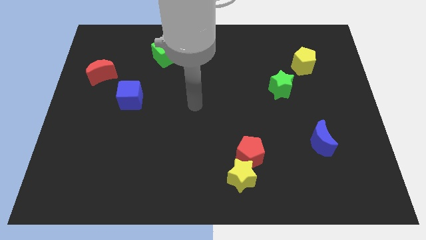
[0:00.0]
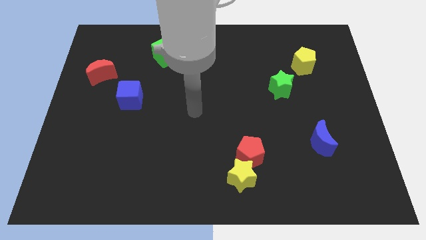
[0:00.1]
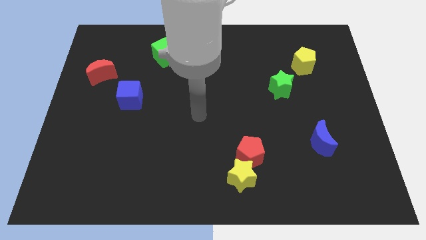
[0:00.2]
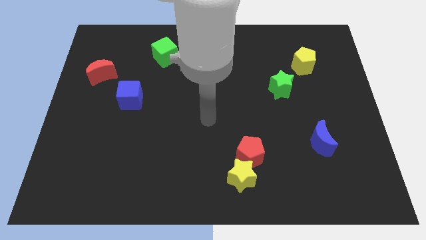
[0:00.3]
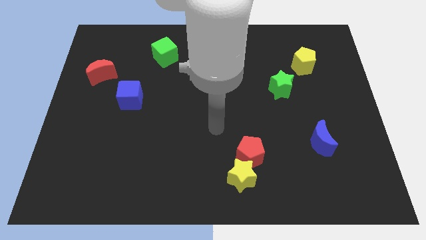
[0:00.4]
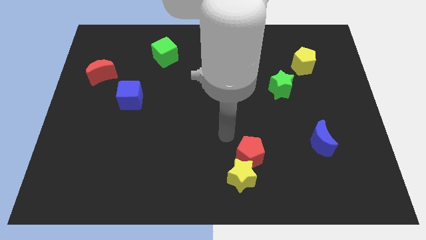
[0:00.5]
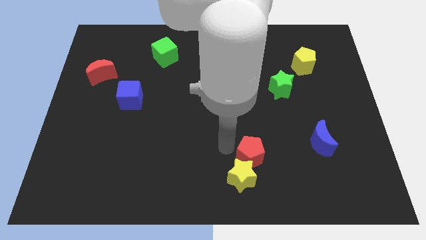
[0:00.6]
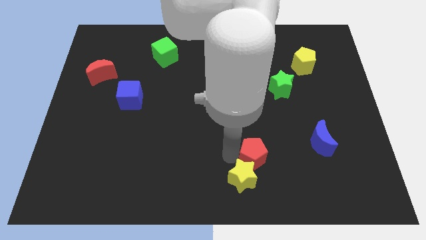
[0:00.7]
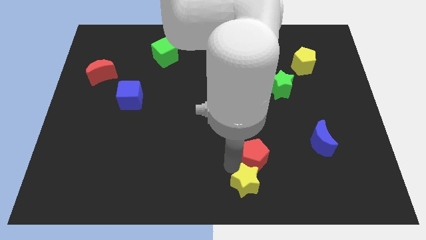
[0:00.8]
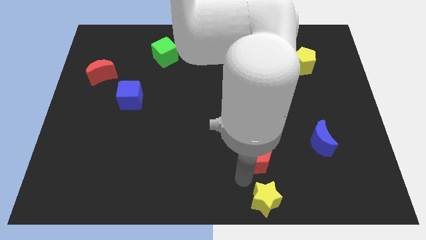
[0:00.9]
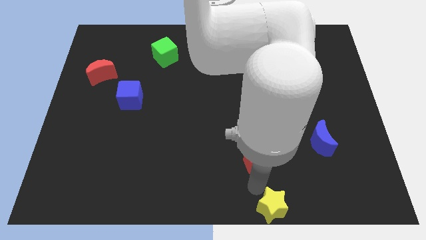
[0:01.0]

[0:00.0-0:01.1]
move the red pentagon away from the yellow star

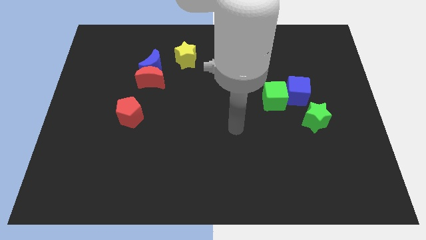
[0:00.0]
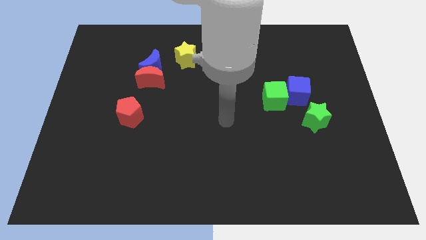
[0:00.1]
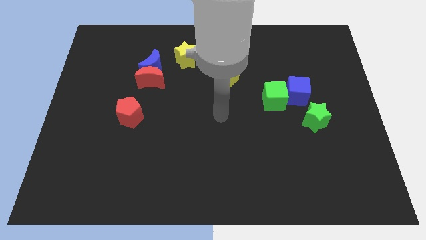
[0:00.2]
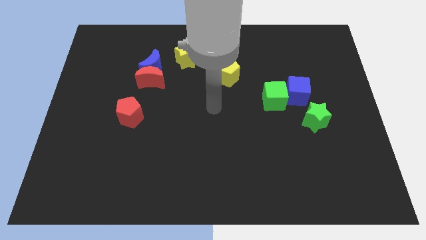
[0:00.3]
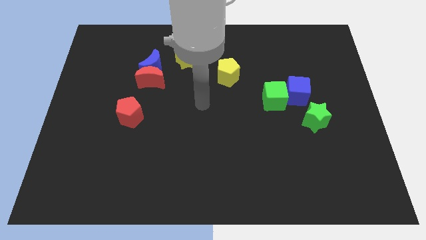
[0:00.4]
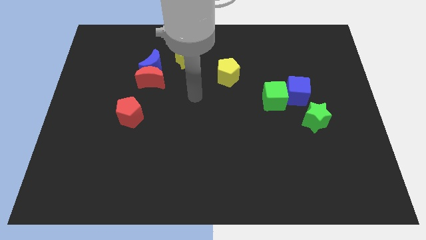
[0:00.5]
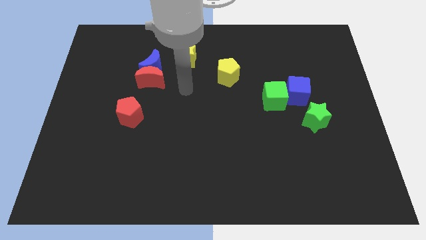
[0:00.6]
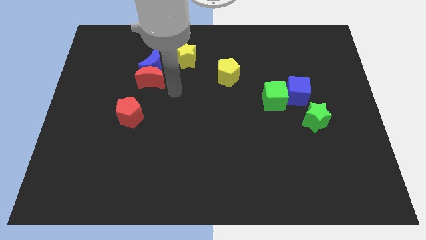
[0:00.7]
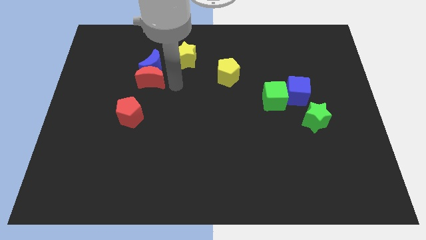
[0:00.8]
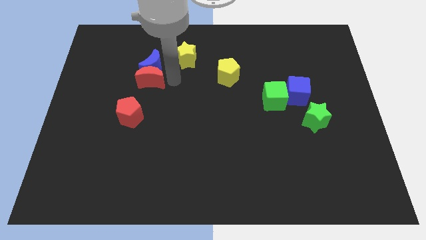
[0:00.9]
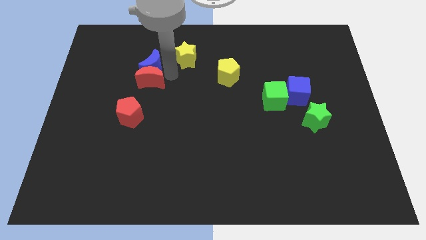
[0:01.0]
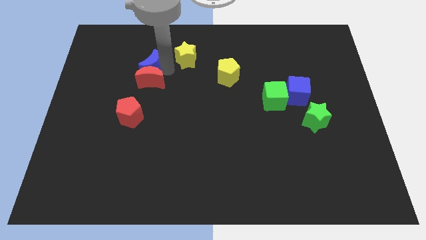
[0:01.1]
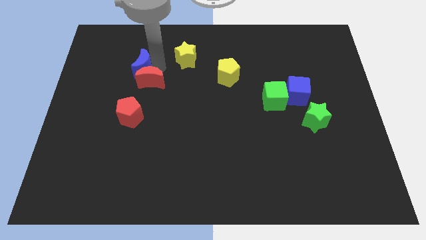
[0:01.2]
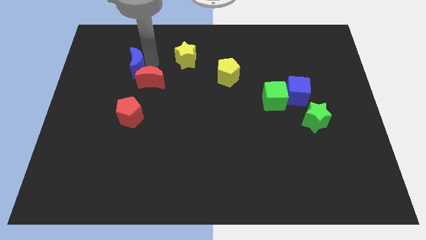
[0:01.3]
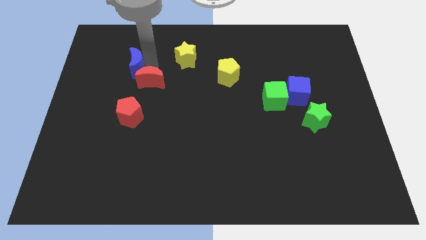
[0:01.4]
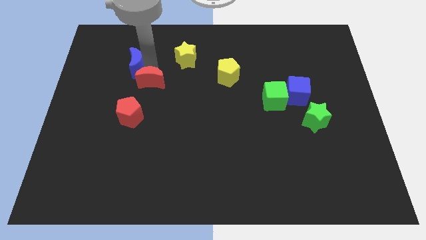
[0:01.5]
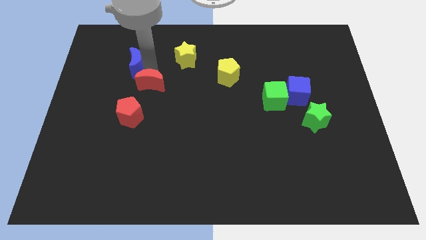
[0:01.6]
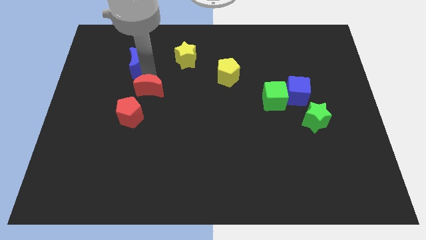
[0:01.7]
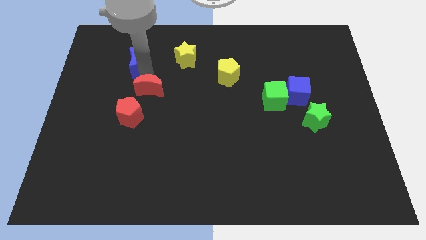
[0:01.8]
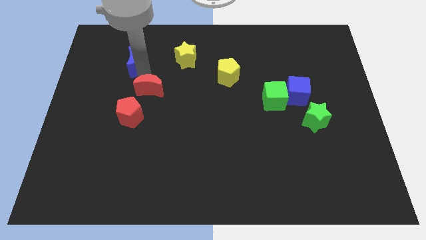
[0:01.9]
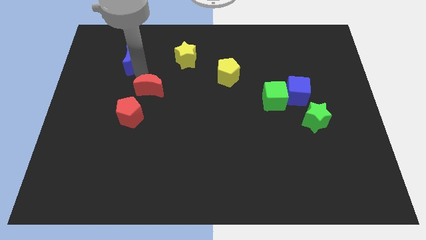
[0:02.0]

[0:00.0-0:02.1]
separate the red moon from the blue moon

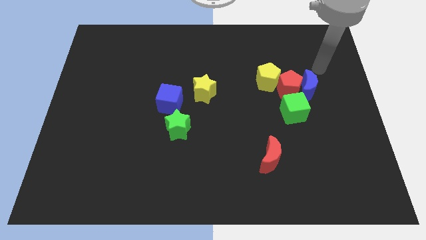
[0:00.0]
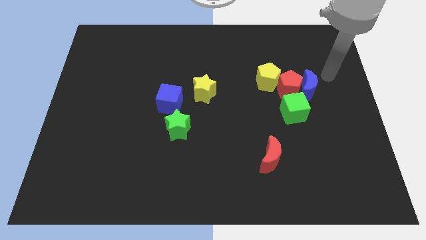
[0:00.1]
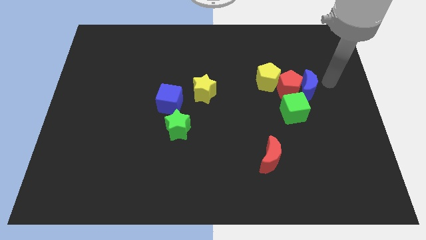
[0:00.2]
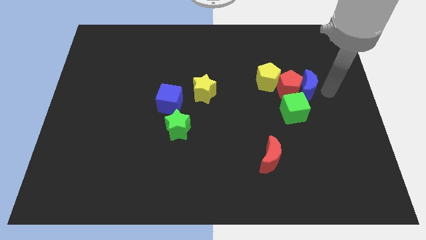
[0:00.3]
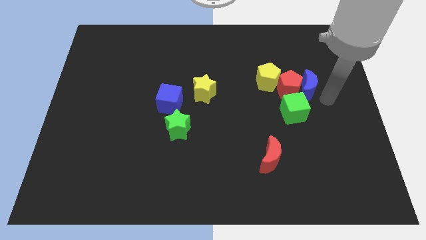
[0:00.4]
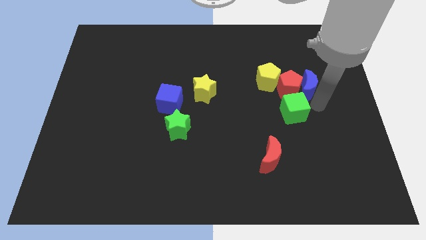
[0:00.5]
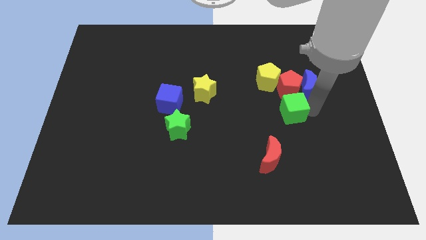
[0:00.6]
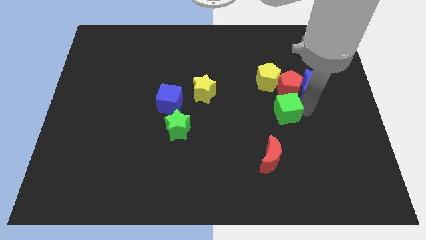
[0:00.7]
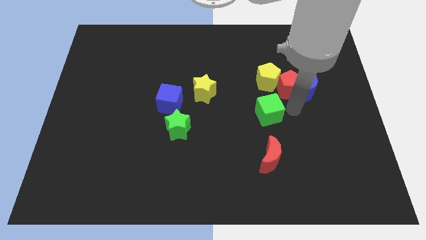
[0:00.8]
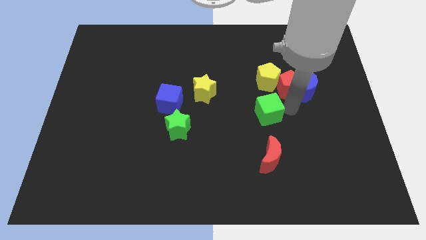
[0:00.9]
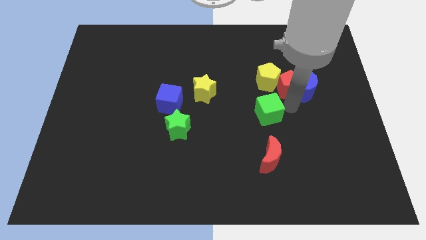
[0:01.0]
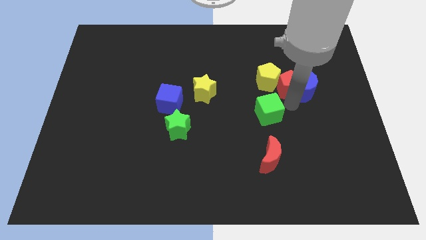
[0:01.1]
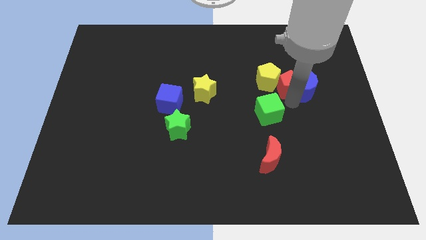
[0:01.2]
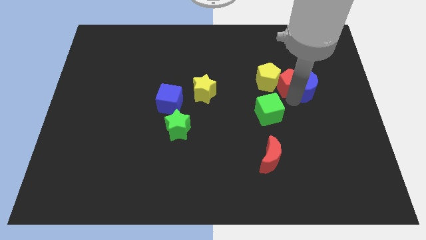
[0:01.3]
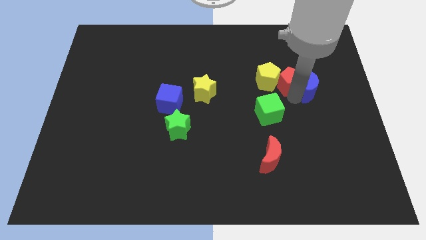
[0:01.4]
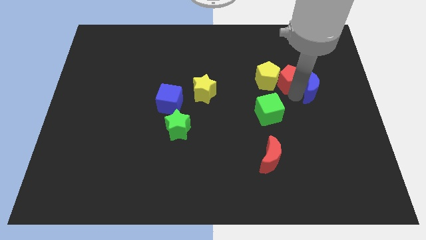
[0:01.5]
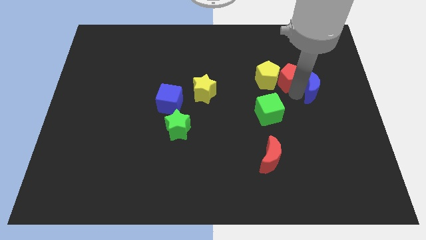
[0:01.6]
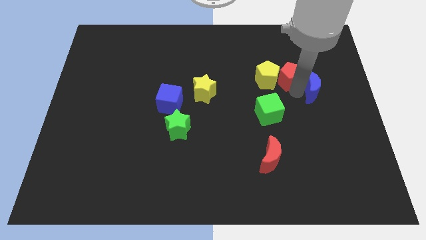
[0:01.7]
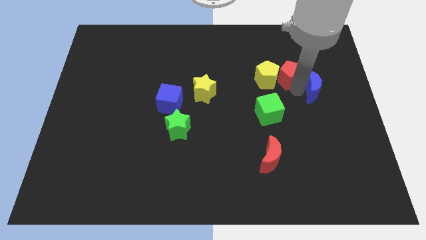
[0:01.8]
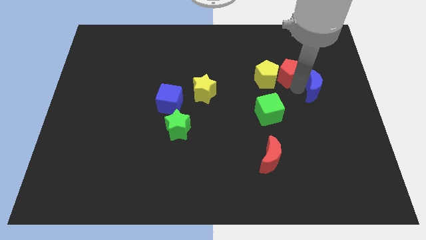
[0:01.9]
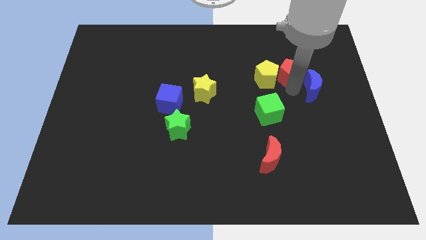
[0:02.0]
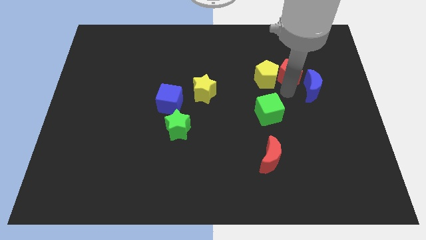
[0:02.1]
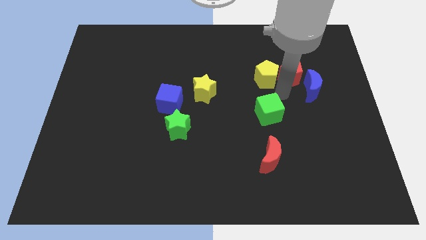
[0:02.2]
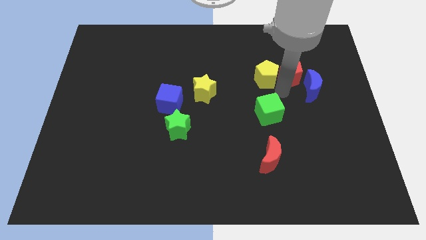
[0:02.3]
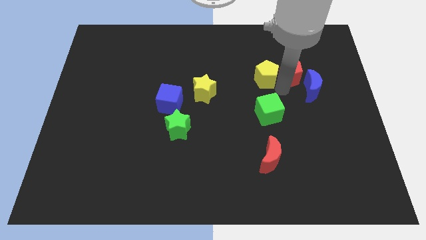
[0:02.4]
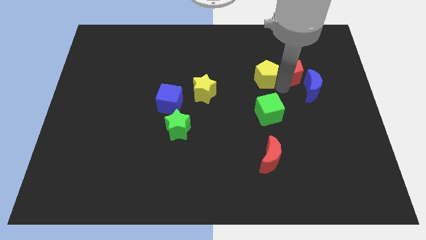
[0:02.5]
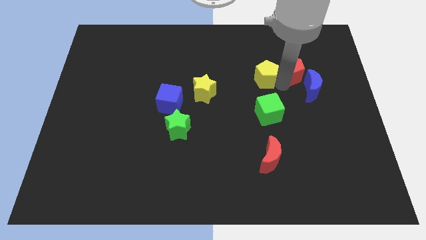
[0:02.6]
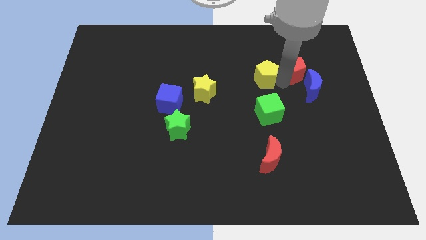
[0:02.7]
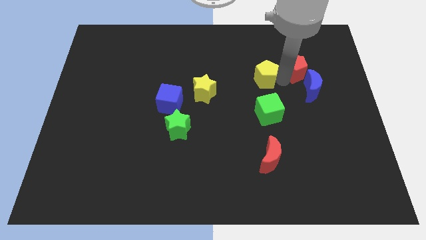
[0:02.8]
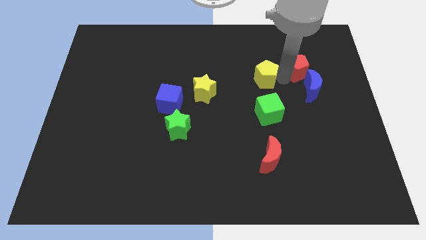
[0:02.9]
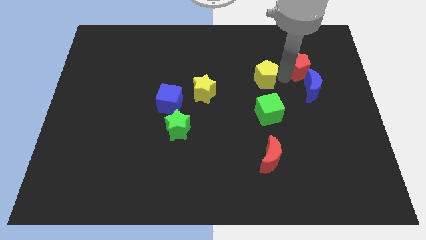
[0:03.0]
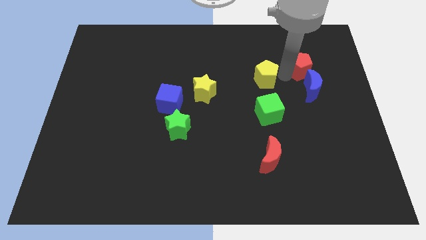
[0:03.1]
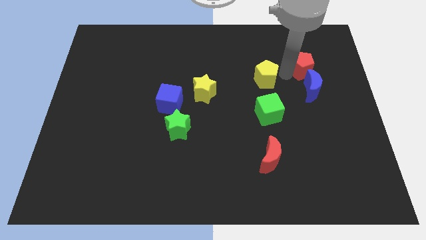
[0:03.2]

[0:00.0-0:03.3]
move the red pentagon away from the clump

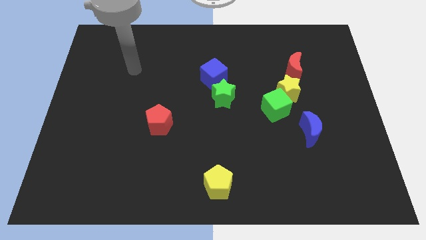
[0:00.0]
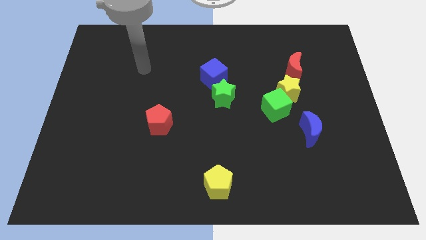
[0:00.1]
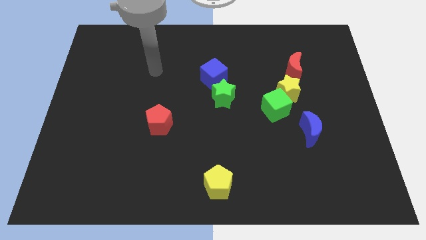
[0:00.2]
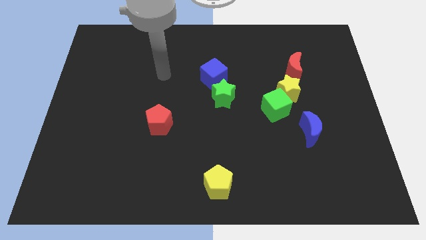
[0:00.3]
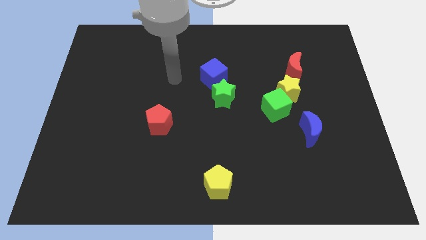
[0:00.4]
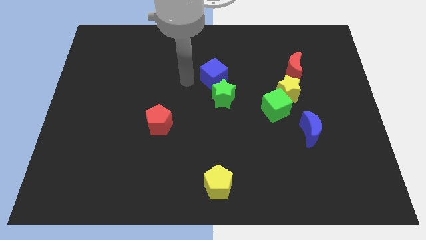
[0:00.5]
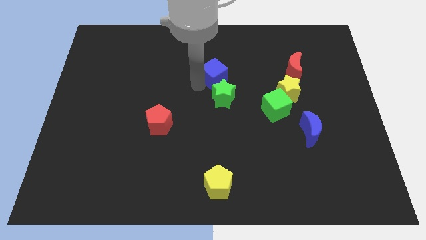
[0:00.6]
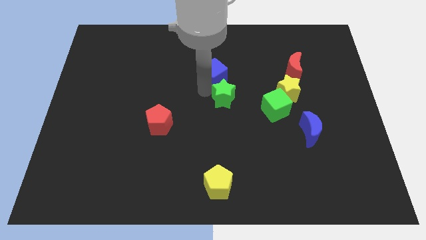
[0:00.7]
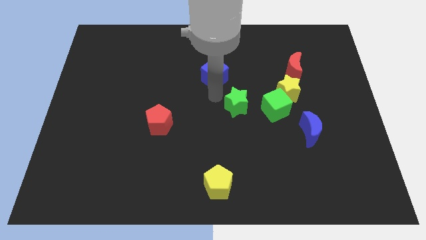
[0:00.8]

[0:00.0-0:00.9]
pull the blue cube apart from the green star

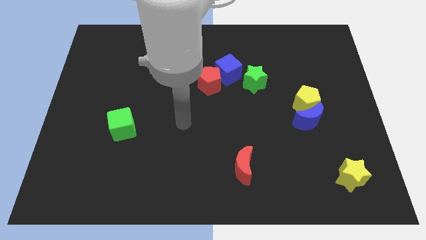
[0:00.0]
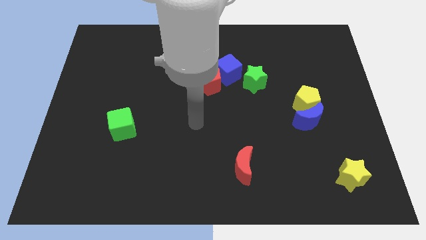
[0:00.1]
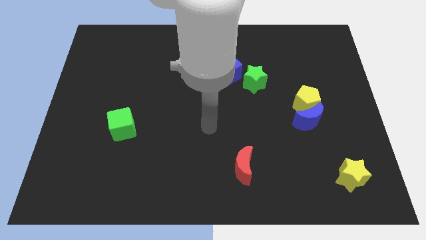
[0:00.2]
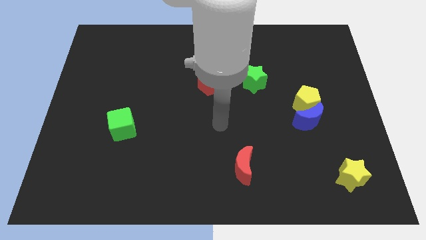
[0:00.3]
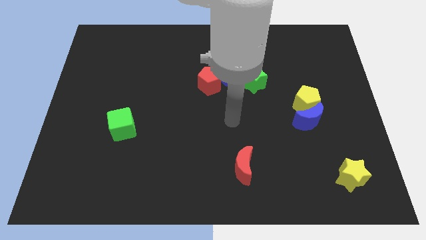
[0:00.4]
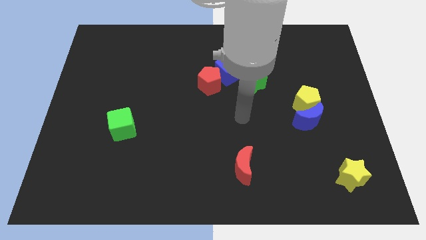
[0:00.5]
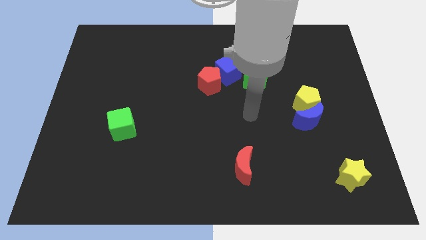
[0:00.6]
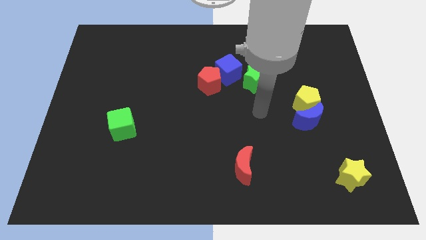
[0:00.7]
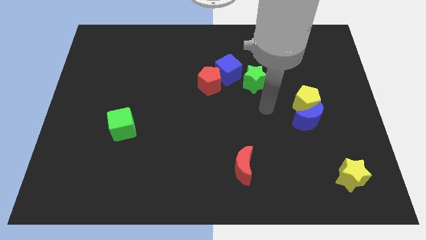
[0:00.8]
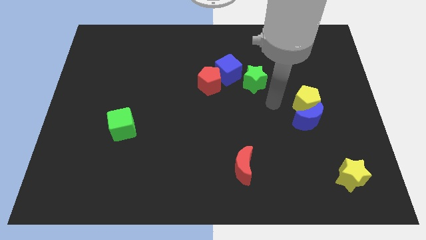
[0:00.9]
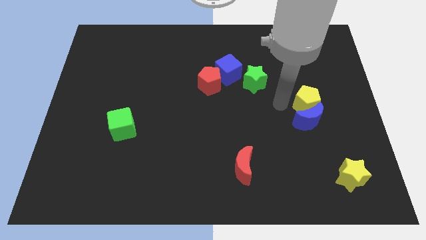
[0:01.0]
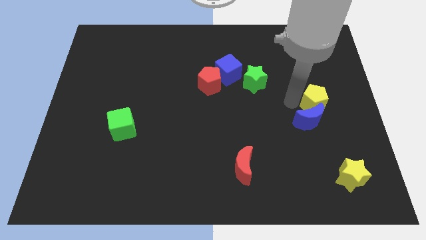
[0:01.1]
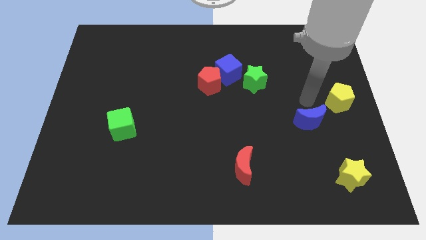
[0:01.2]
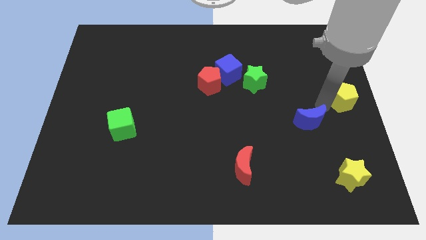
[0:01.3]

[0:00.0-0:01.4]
move the blue moon away from the yellow pentagon

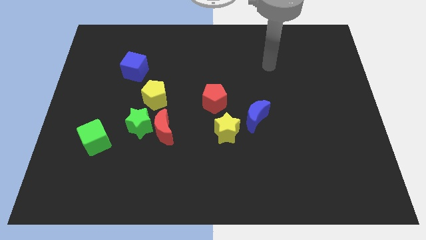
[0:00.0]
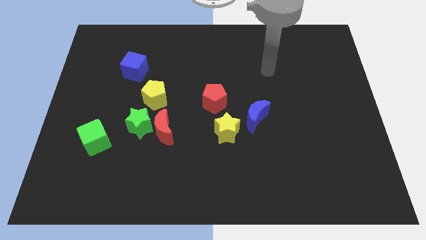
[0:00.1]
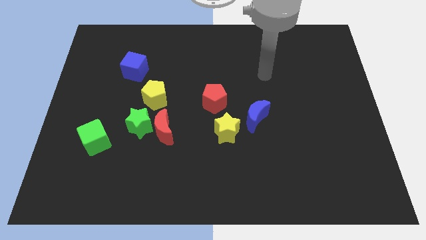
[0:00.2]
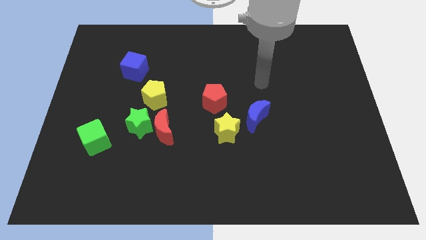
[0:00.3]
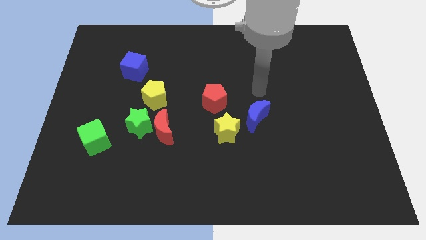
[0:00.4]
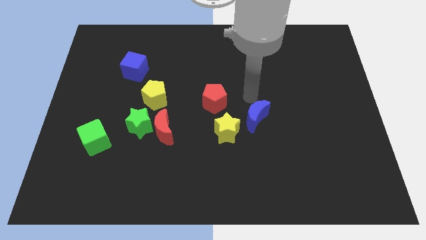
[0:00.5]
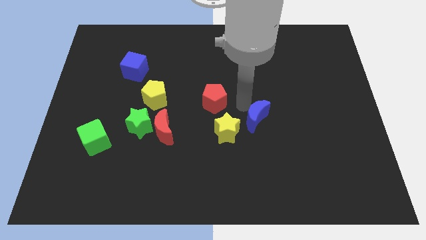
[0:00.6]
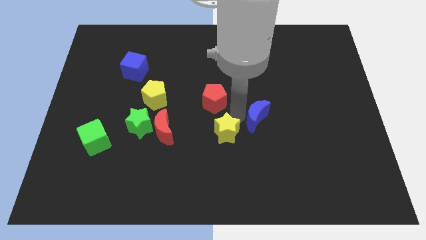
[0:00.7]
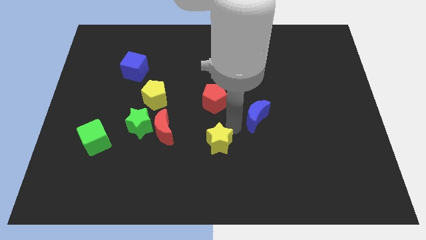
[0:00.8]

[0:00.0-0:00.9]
pull the blue moon apart from the yellow star
